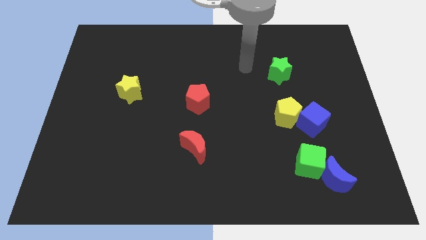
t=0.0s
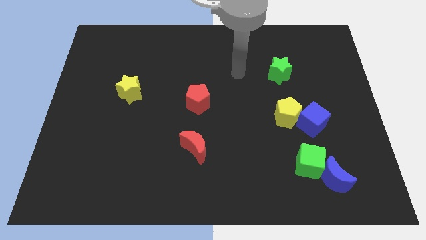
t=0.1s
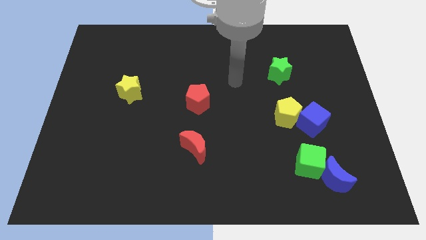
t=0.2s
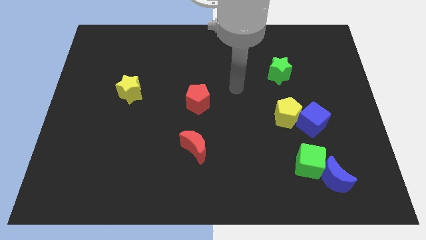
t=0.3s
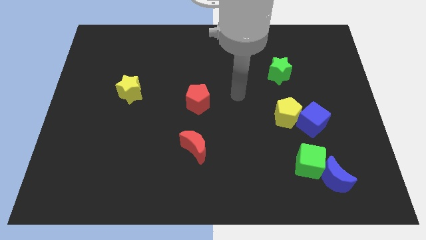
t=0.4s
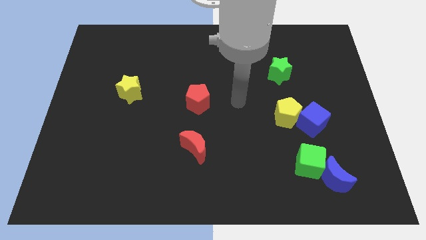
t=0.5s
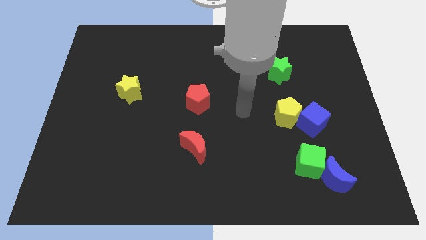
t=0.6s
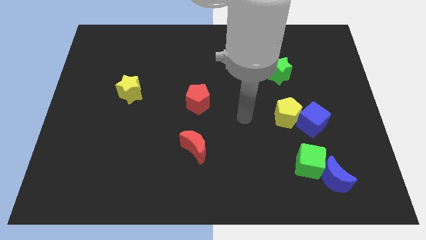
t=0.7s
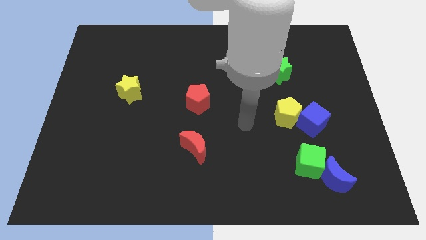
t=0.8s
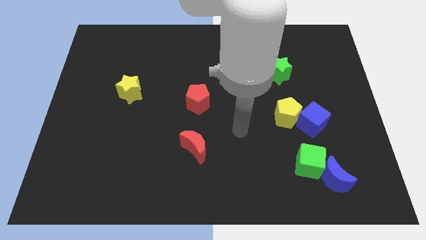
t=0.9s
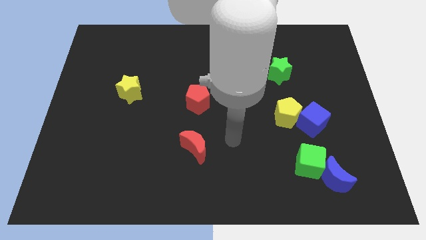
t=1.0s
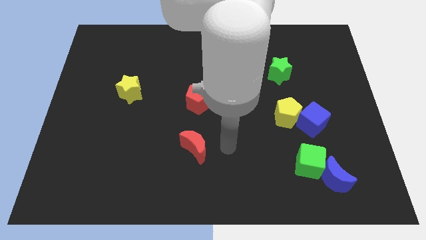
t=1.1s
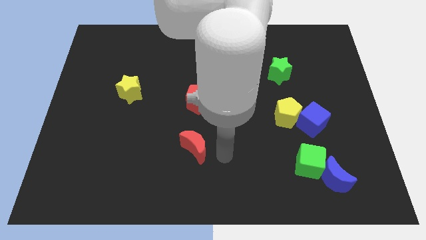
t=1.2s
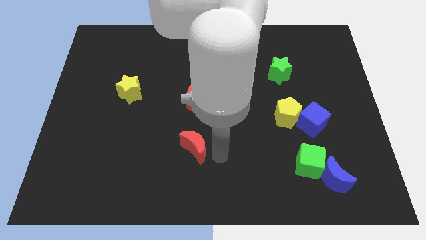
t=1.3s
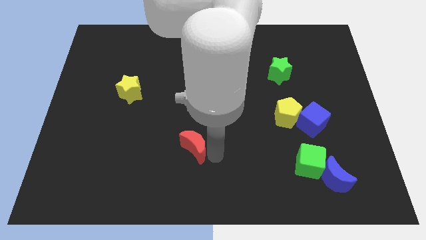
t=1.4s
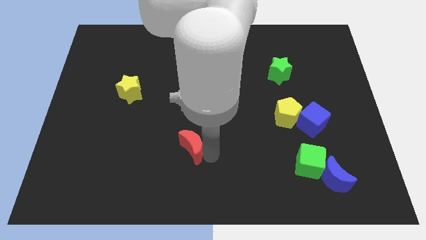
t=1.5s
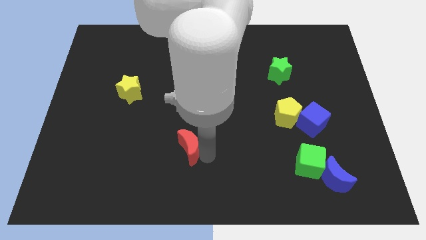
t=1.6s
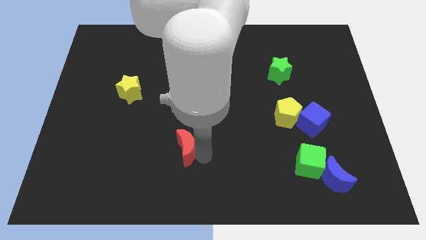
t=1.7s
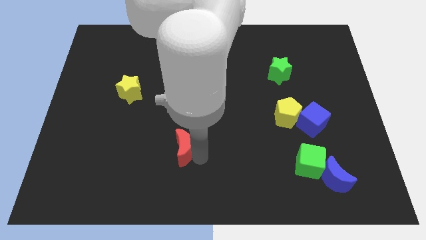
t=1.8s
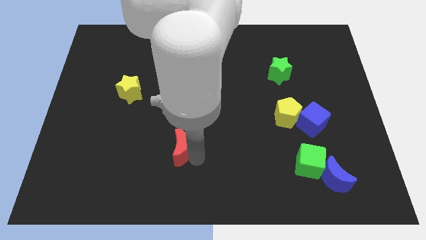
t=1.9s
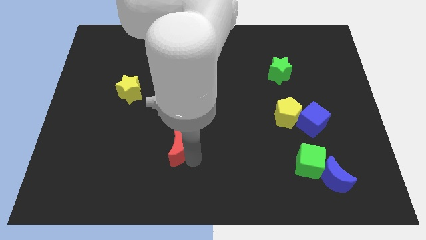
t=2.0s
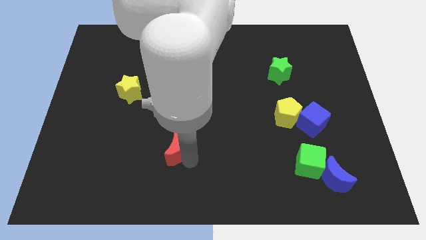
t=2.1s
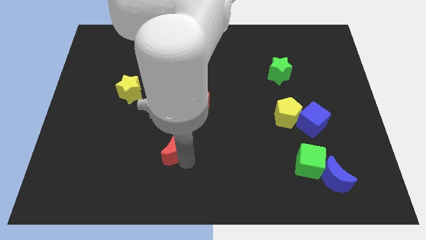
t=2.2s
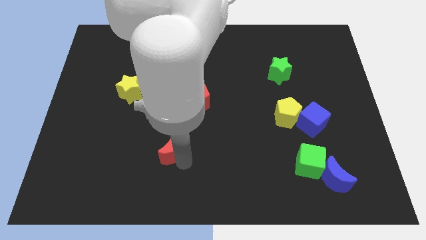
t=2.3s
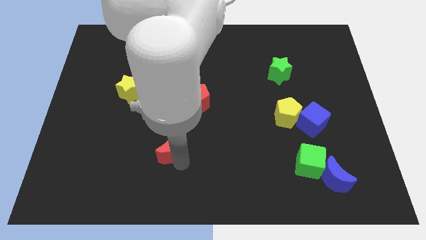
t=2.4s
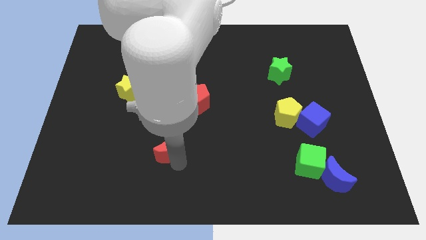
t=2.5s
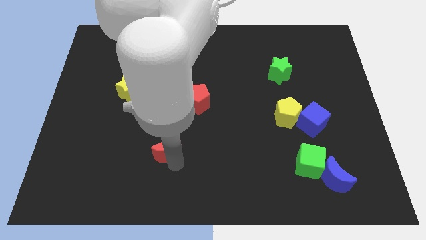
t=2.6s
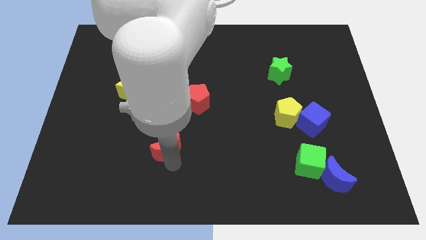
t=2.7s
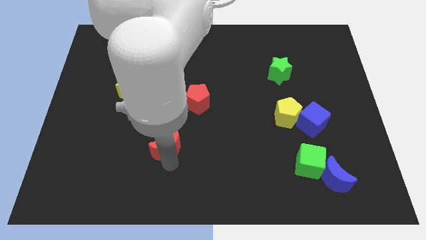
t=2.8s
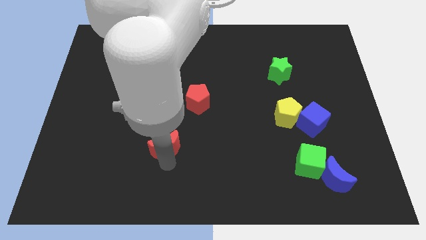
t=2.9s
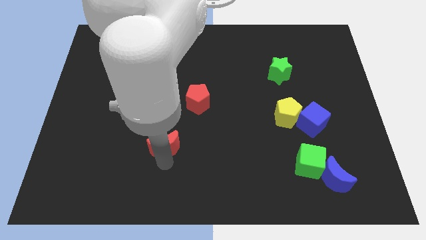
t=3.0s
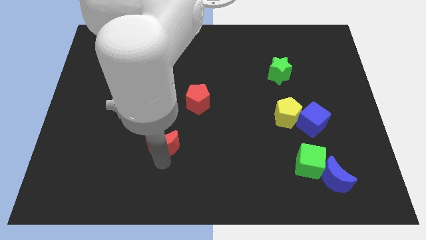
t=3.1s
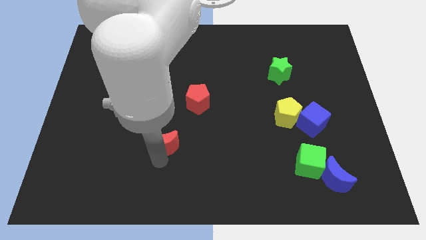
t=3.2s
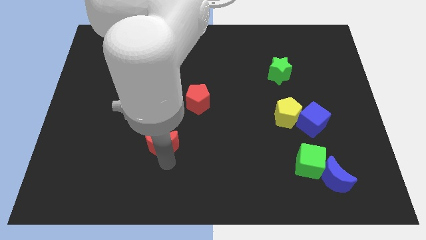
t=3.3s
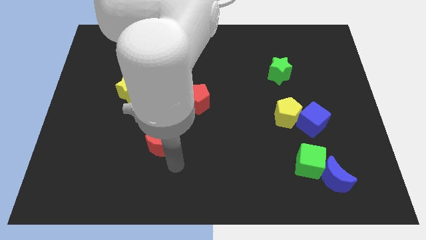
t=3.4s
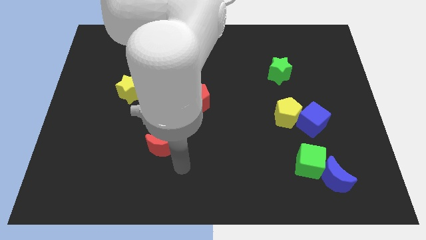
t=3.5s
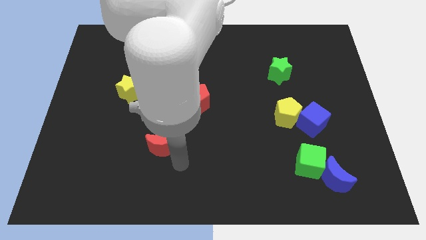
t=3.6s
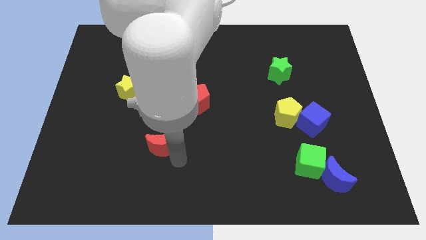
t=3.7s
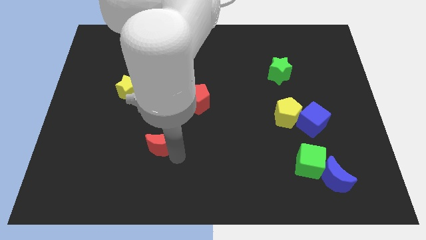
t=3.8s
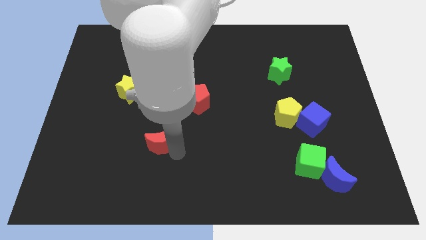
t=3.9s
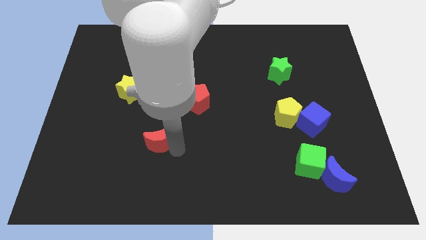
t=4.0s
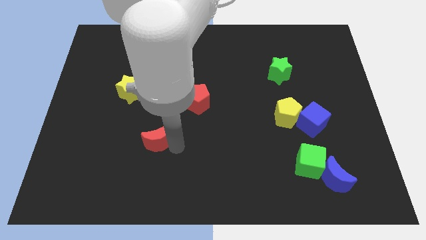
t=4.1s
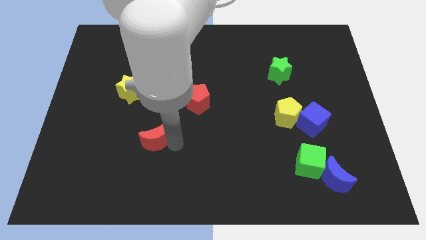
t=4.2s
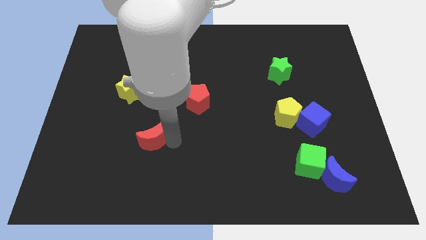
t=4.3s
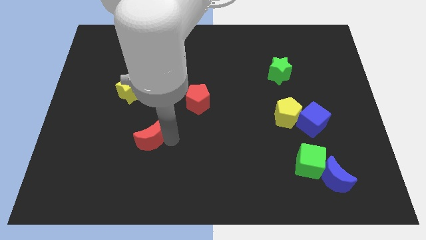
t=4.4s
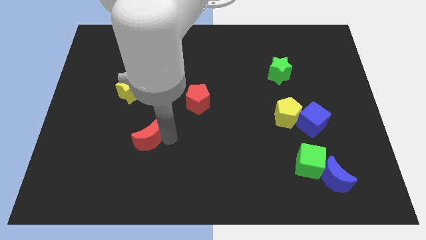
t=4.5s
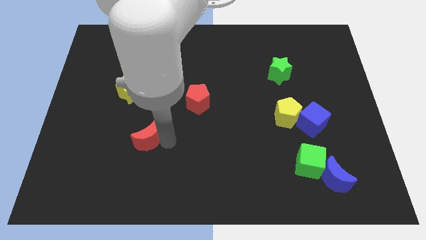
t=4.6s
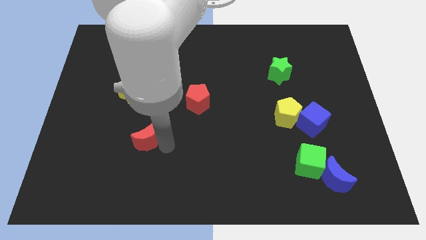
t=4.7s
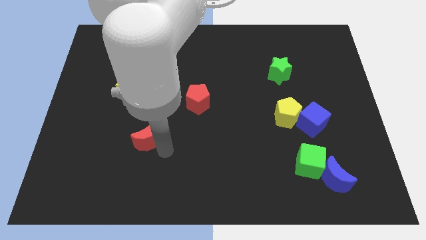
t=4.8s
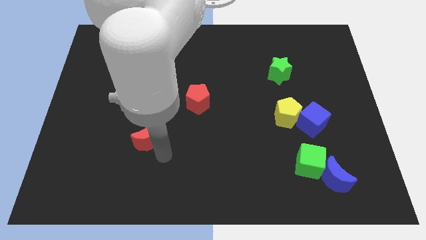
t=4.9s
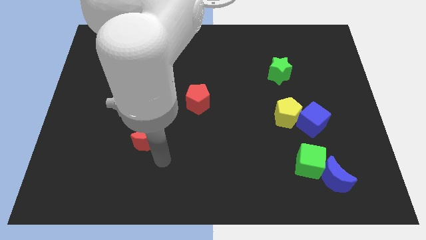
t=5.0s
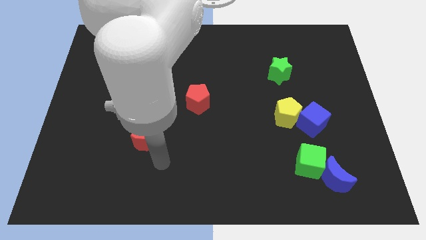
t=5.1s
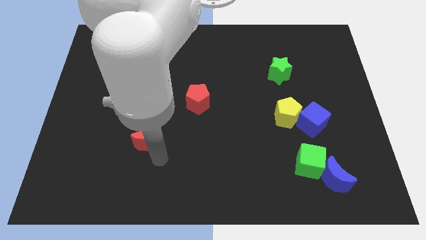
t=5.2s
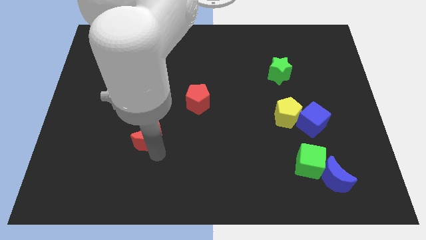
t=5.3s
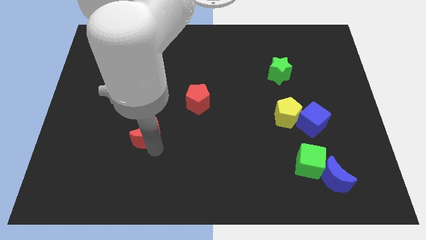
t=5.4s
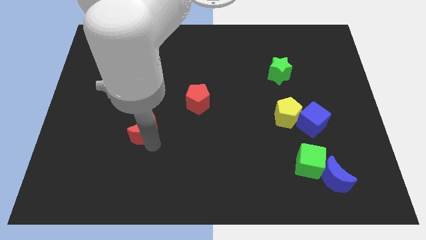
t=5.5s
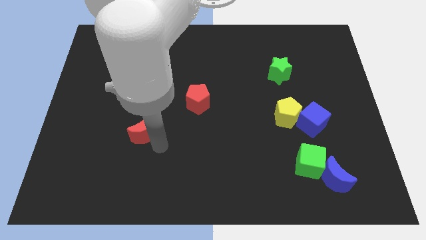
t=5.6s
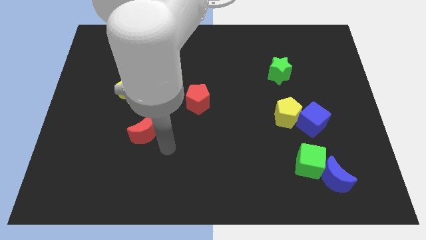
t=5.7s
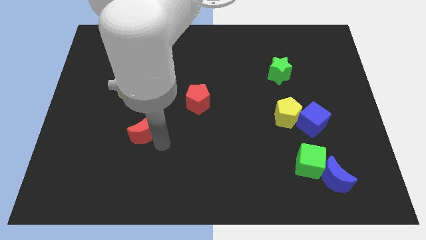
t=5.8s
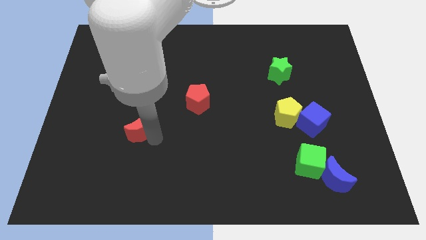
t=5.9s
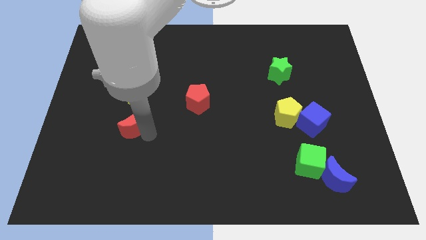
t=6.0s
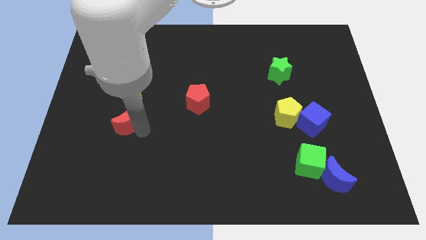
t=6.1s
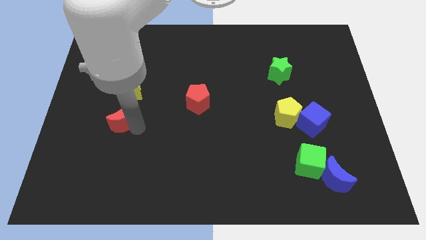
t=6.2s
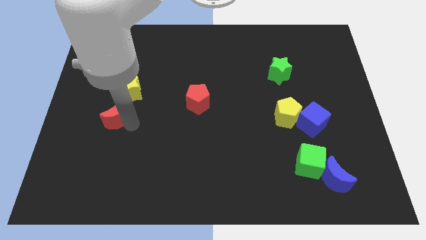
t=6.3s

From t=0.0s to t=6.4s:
push the red moon diagonally down and to the left of the yellow star

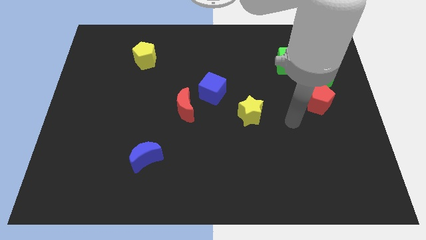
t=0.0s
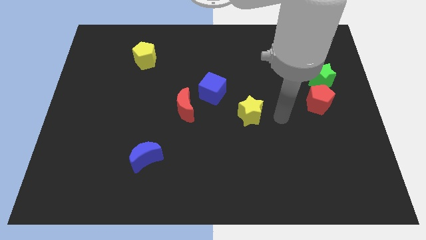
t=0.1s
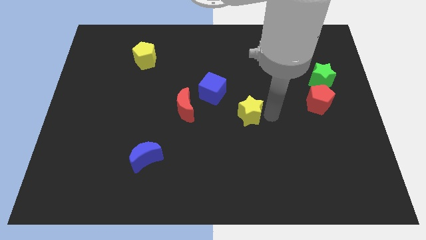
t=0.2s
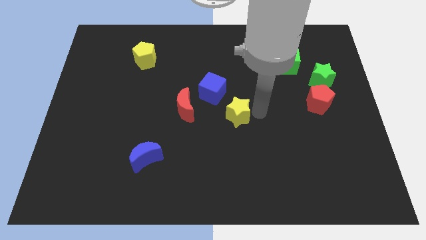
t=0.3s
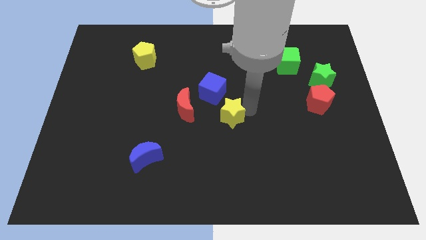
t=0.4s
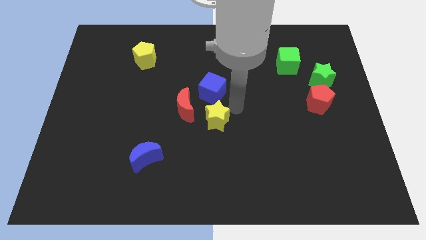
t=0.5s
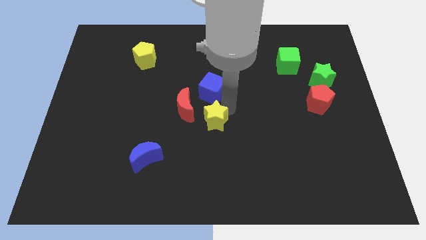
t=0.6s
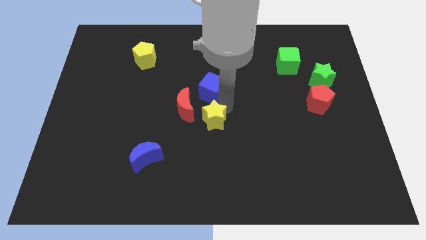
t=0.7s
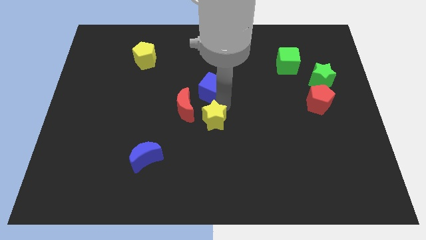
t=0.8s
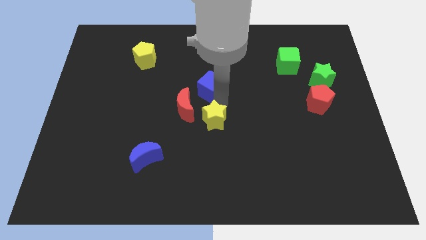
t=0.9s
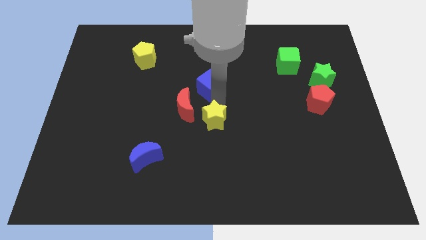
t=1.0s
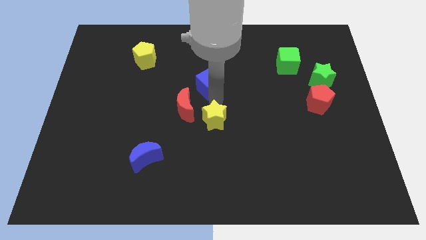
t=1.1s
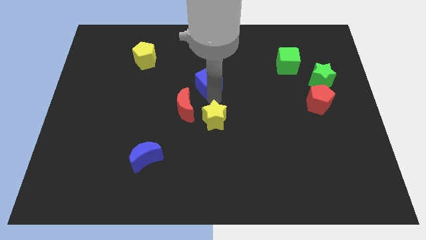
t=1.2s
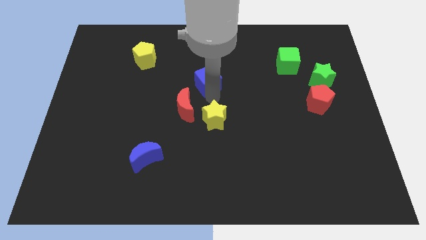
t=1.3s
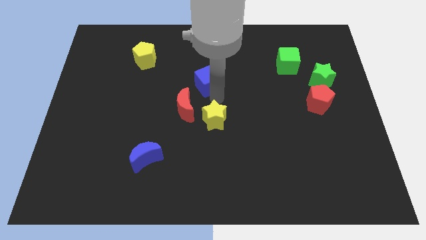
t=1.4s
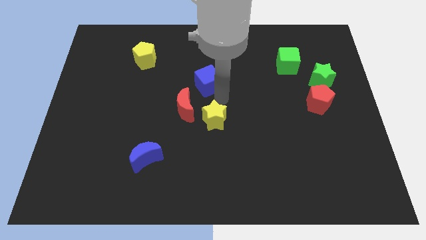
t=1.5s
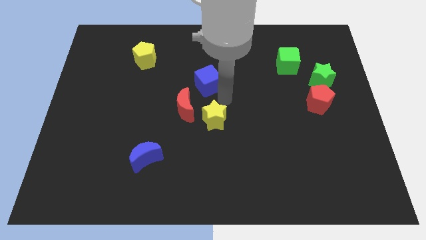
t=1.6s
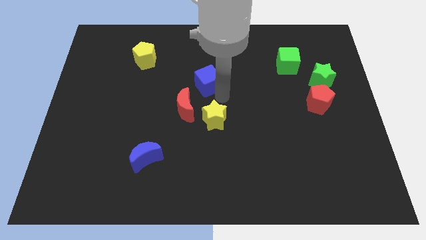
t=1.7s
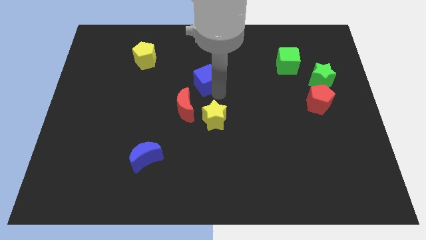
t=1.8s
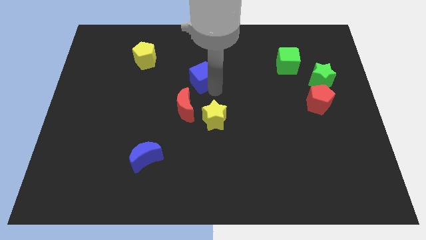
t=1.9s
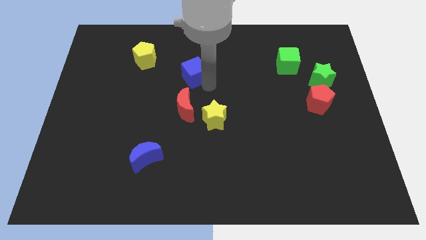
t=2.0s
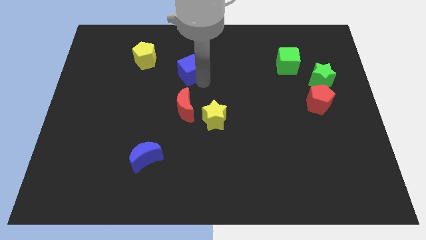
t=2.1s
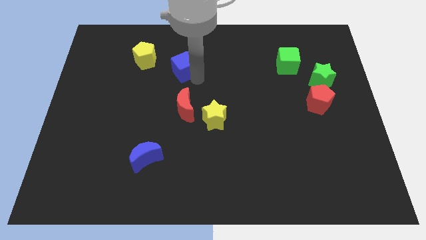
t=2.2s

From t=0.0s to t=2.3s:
push the blue cube right of the yellow pentagon
